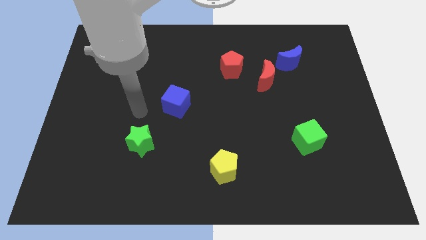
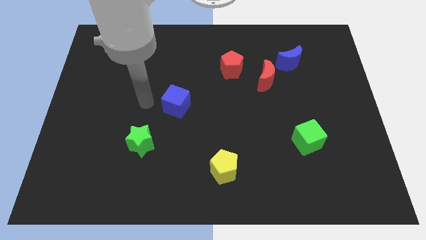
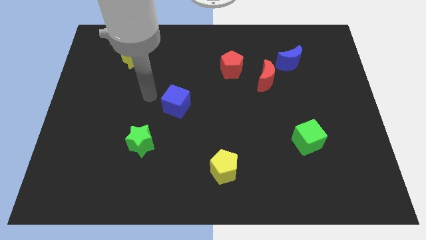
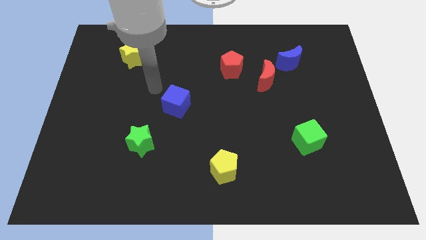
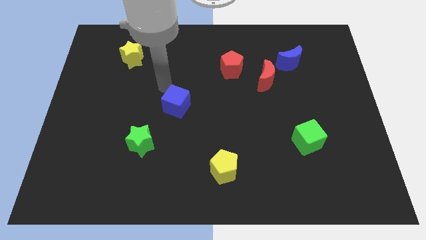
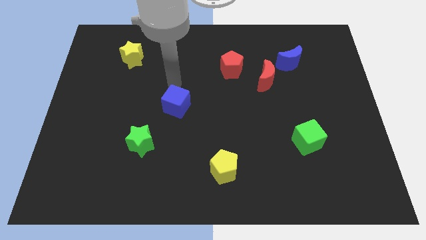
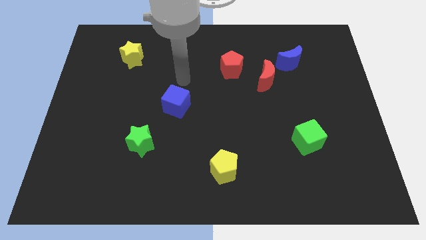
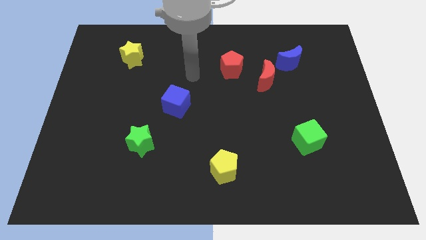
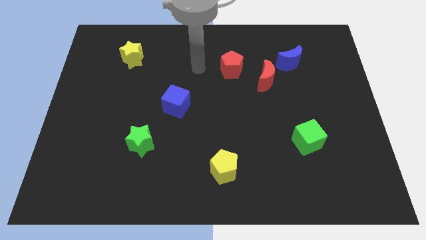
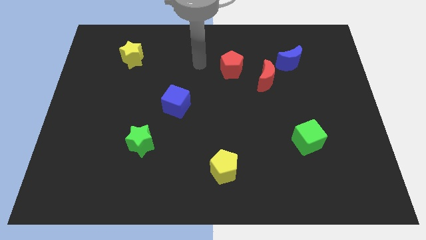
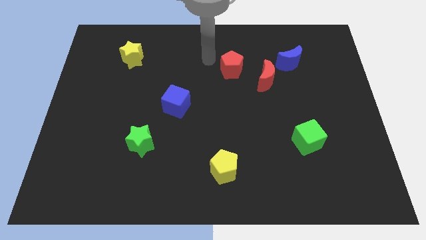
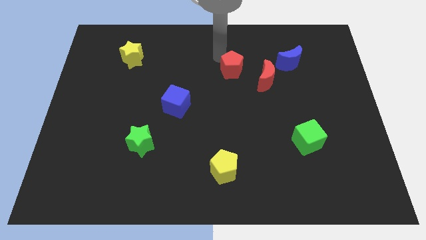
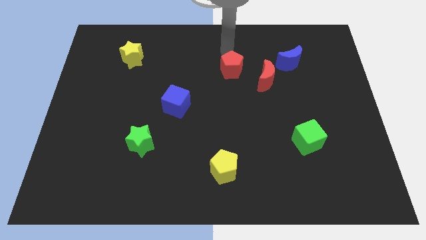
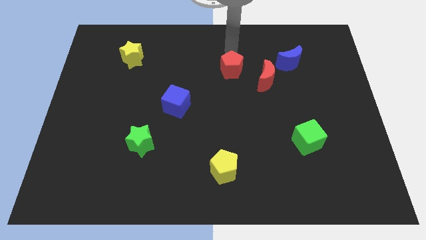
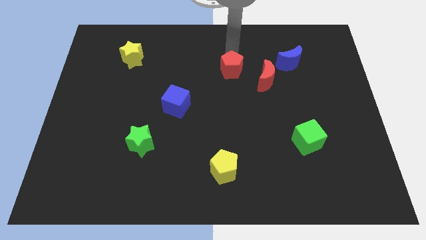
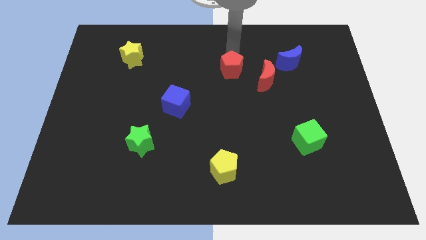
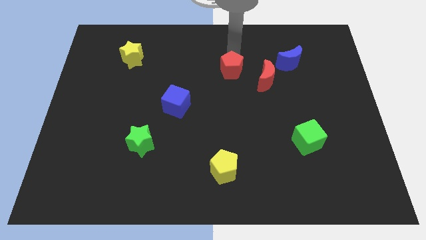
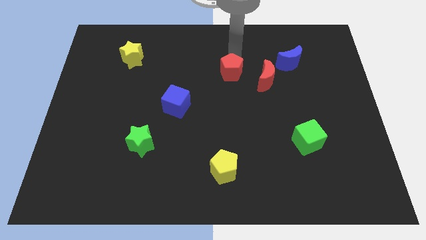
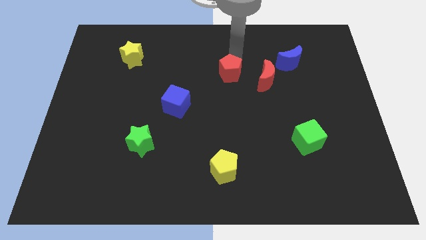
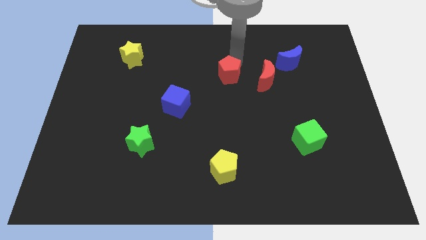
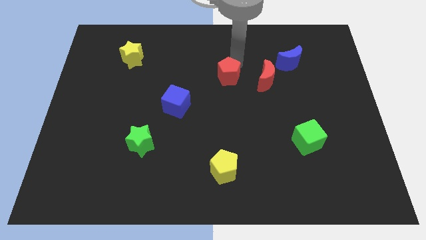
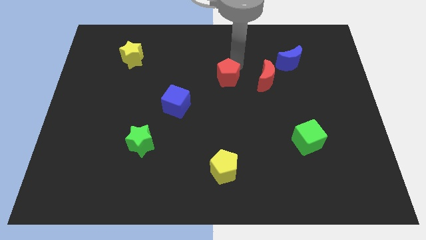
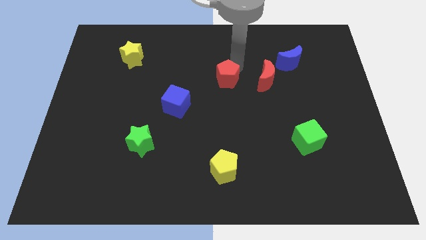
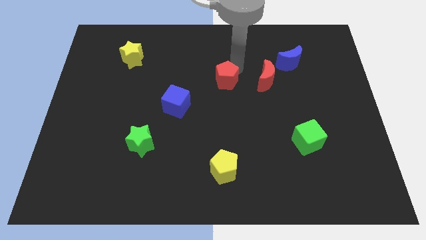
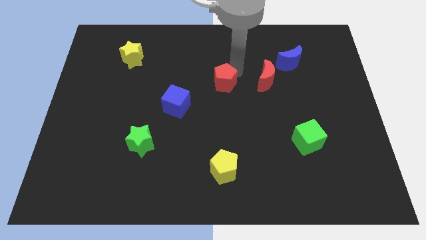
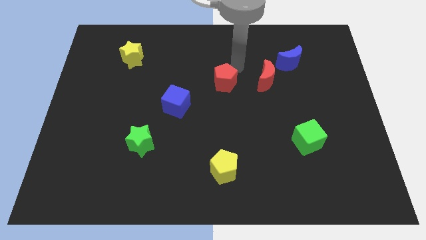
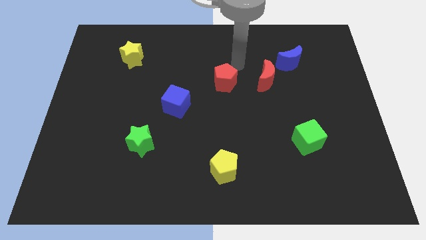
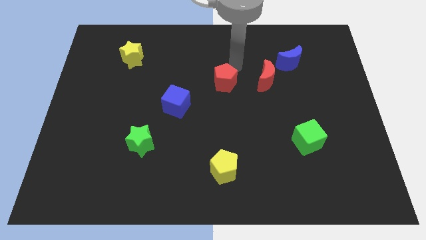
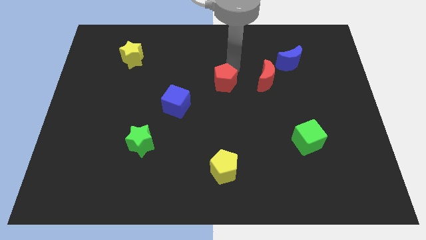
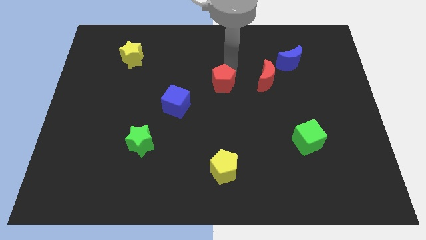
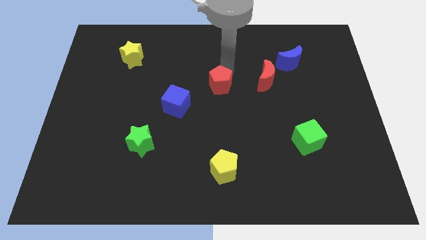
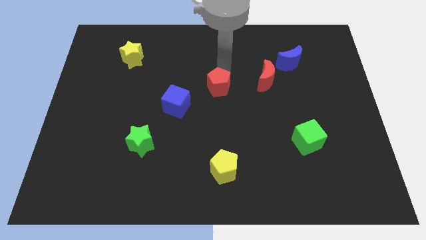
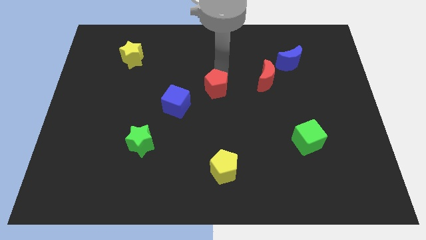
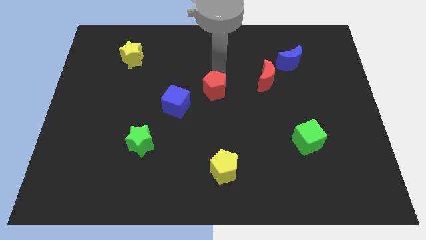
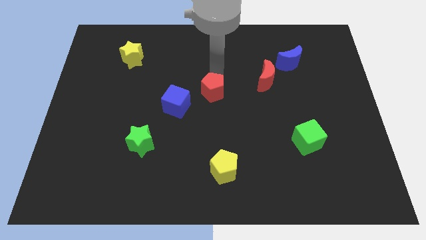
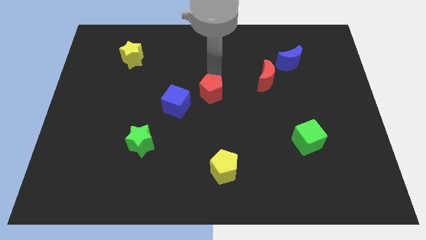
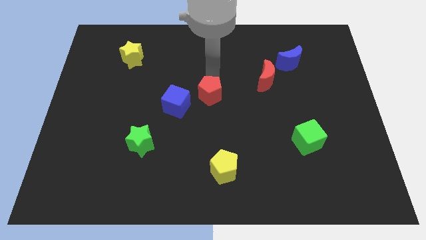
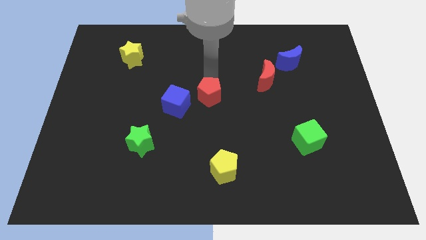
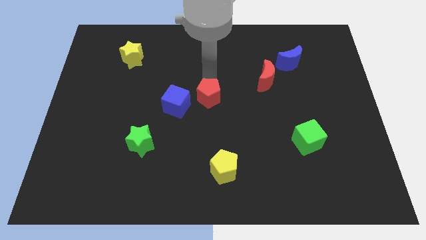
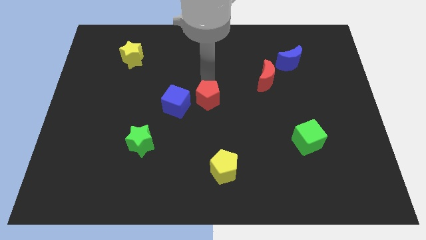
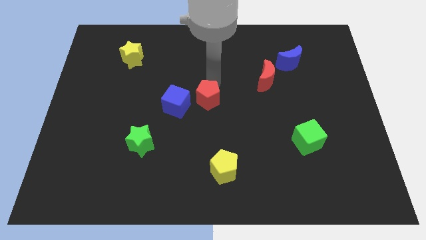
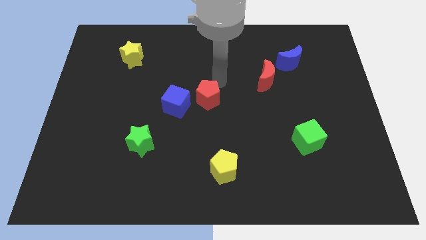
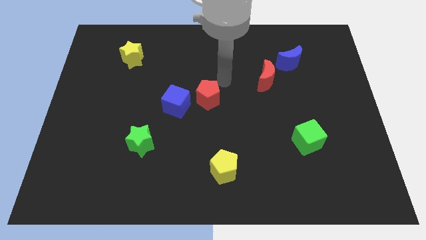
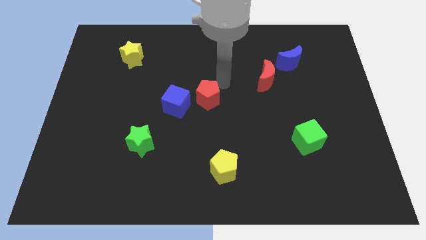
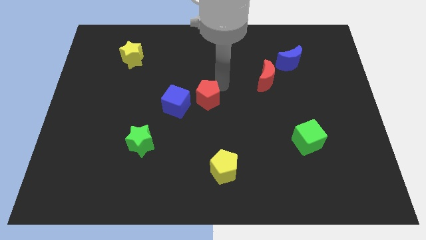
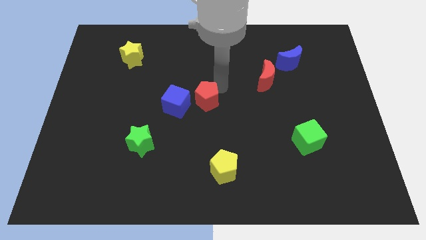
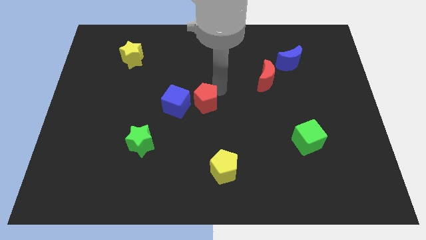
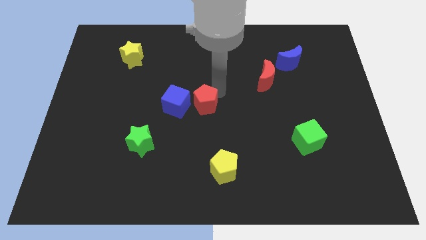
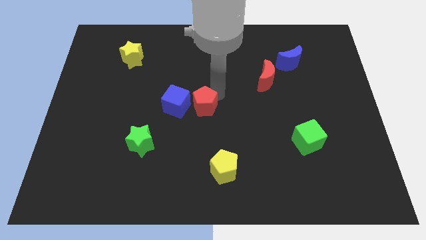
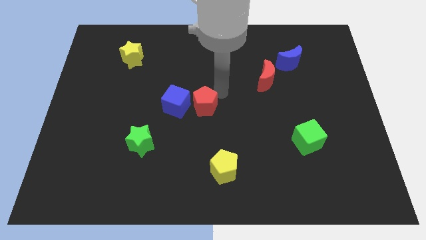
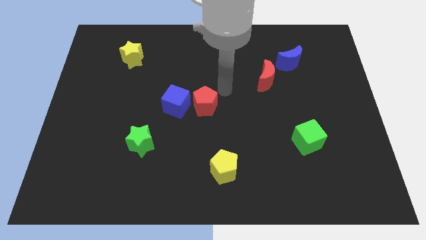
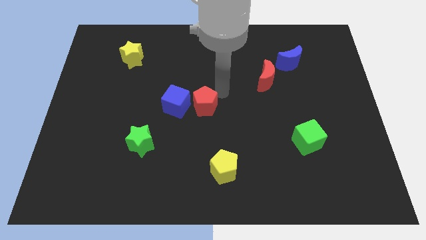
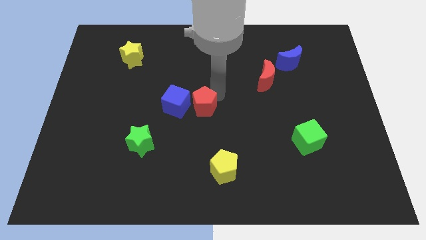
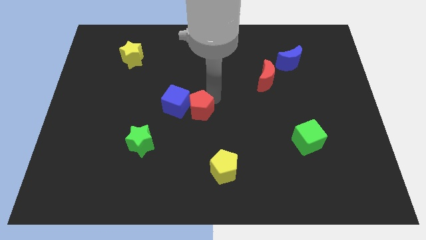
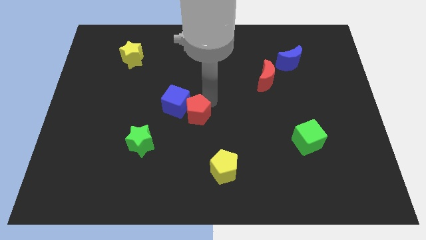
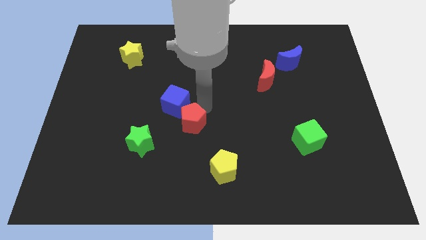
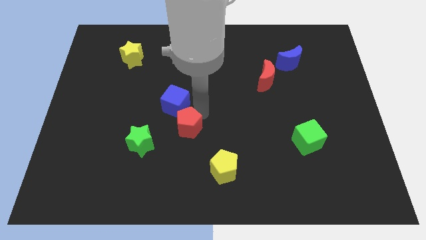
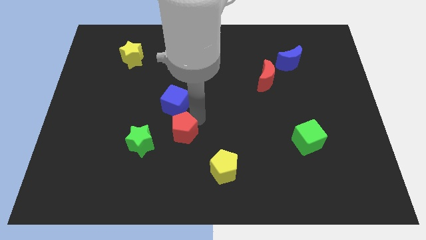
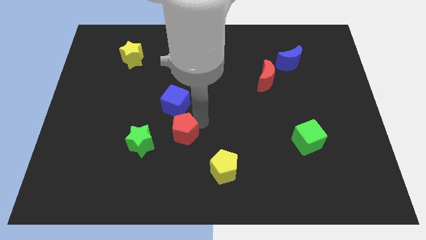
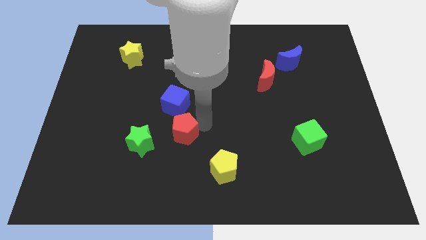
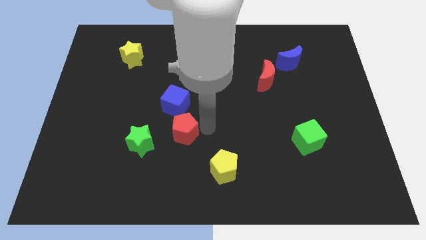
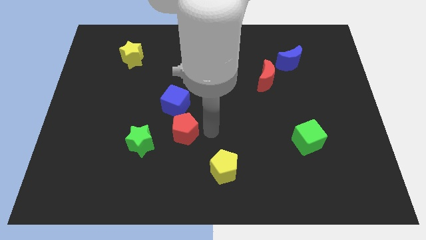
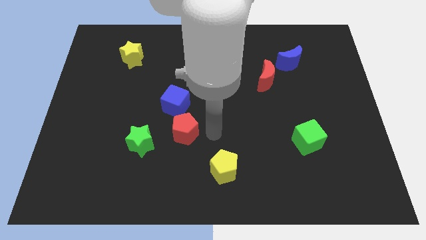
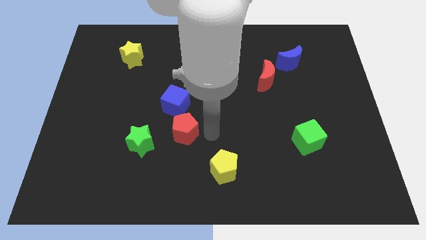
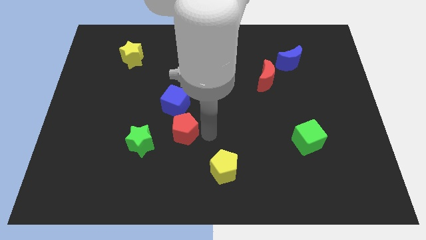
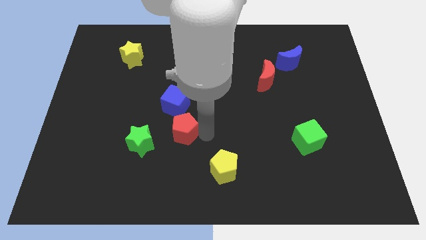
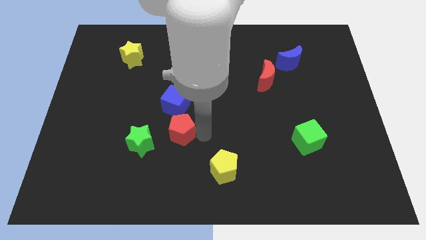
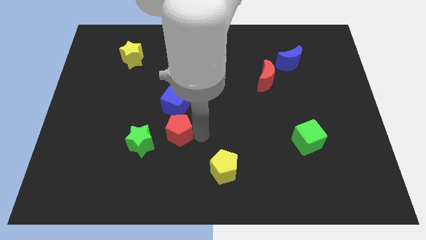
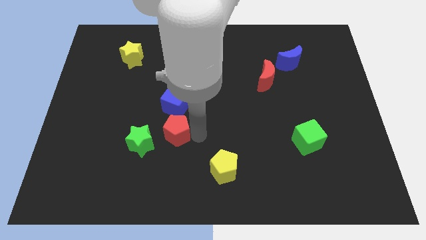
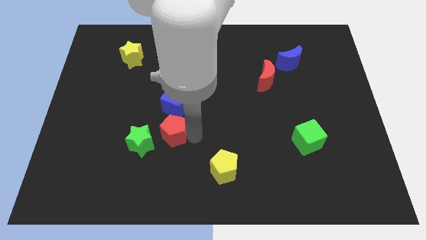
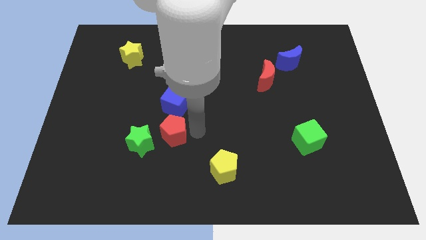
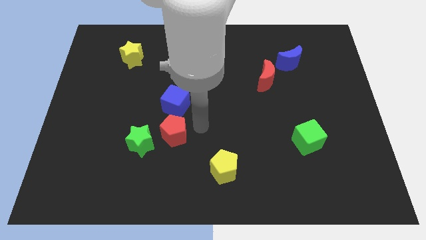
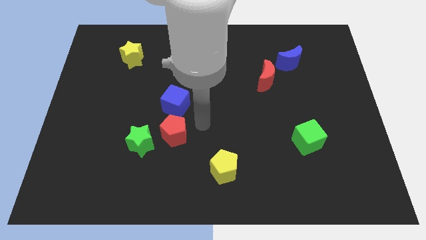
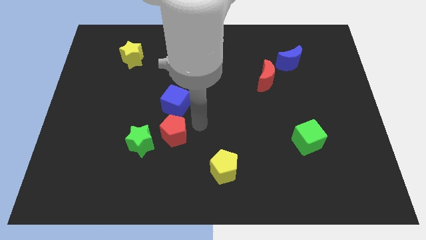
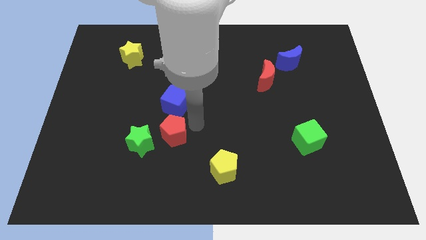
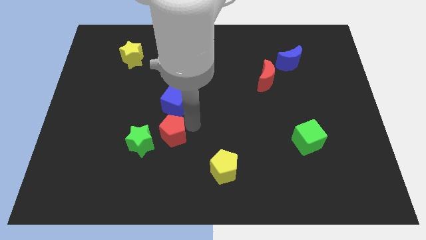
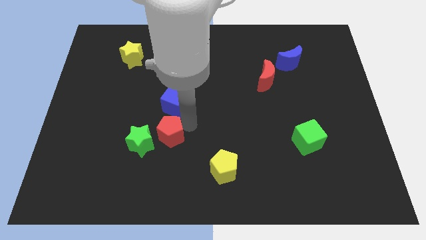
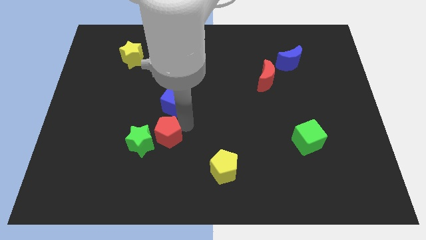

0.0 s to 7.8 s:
push the red pentagon towards the green star
